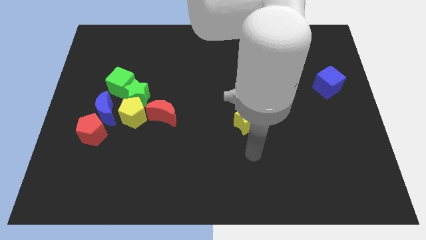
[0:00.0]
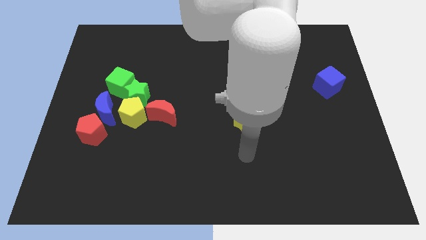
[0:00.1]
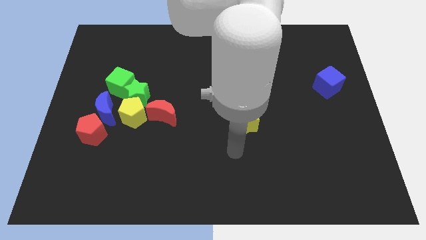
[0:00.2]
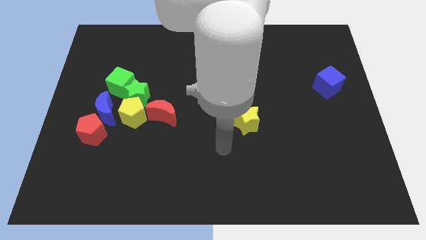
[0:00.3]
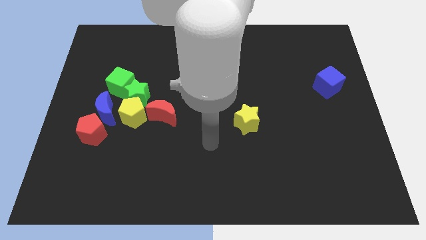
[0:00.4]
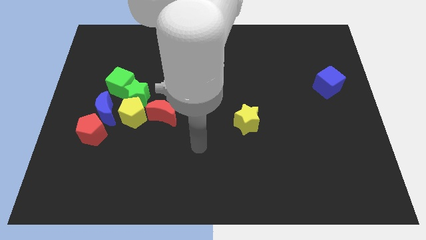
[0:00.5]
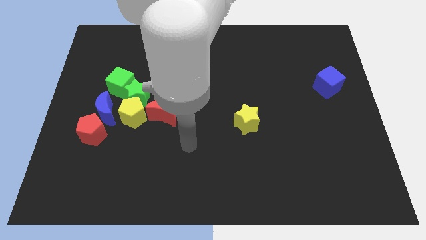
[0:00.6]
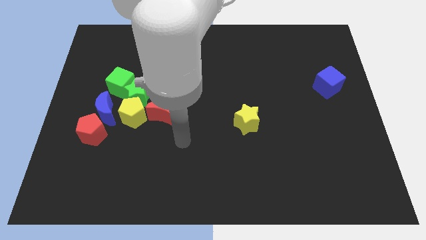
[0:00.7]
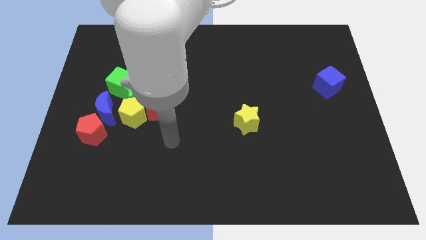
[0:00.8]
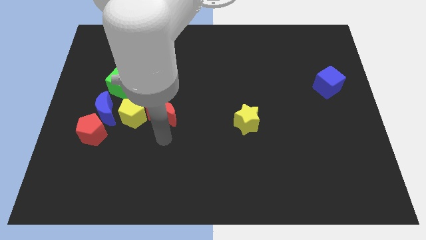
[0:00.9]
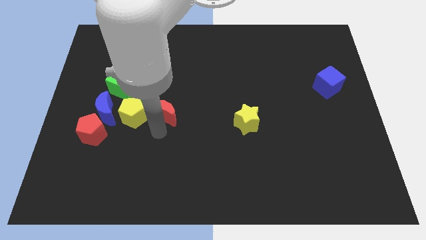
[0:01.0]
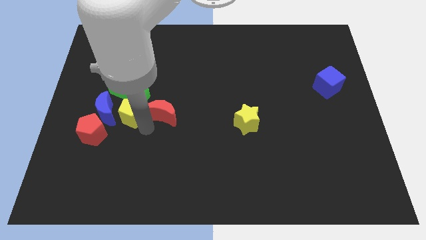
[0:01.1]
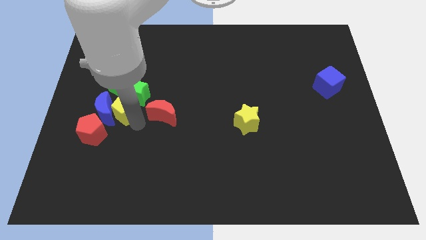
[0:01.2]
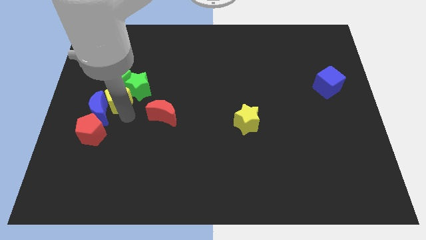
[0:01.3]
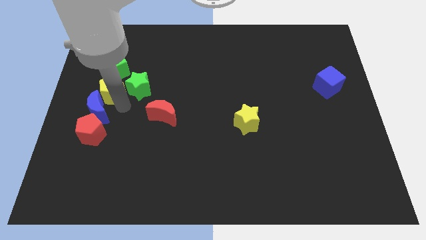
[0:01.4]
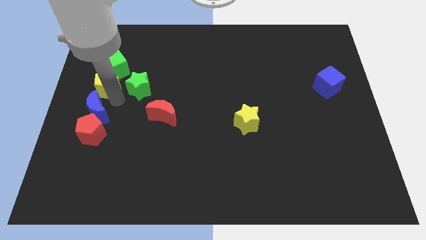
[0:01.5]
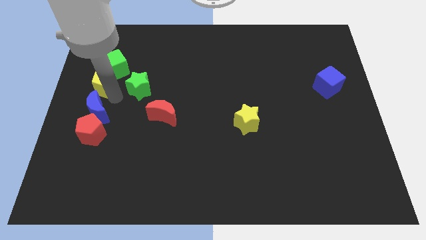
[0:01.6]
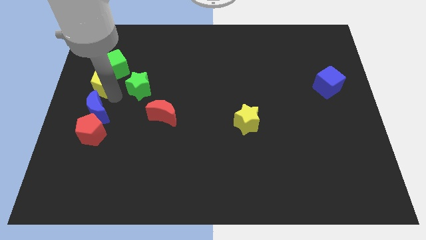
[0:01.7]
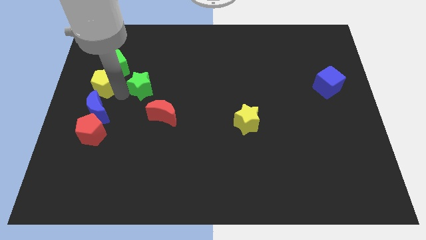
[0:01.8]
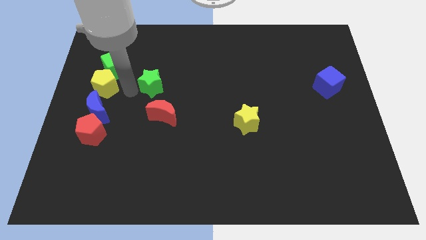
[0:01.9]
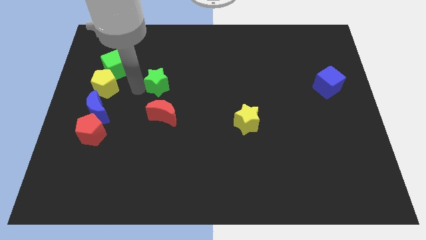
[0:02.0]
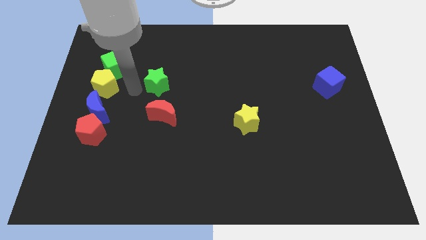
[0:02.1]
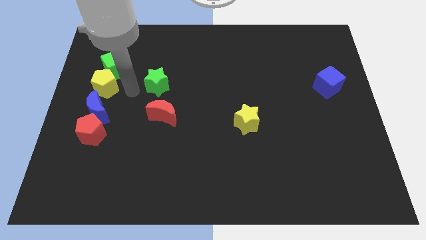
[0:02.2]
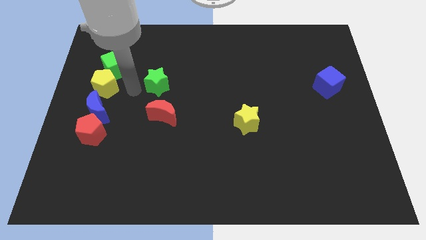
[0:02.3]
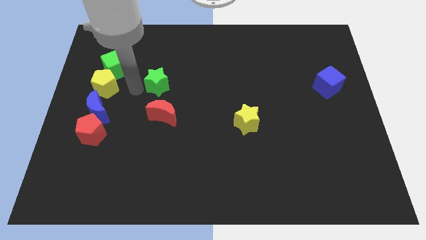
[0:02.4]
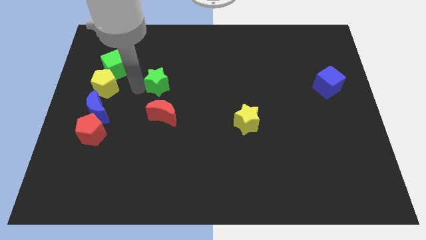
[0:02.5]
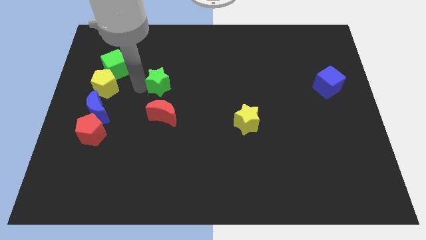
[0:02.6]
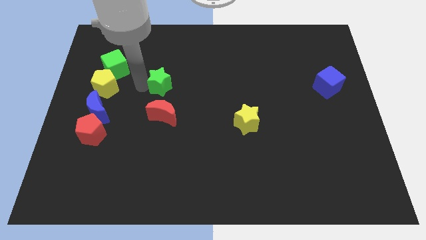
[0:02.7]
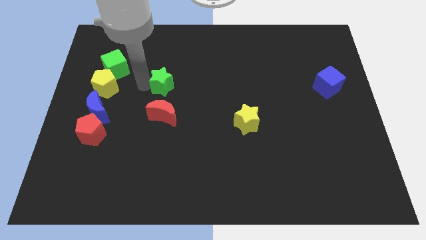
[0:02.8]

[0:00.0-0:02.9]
move the green star away from the group of blocks

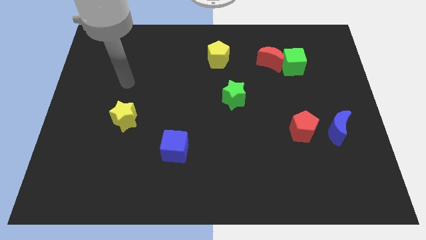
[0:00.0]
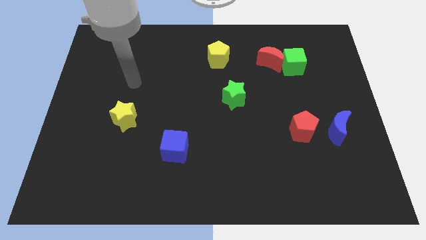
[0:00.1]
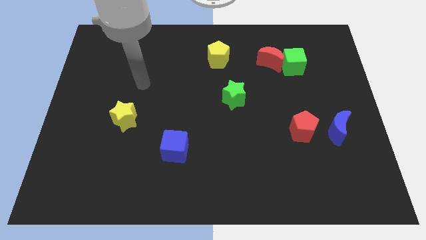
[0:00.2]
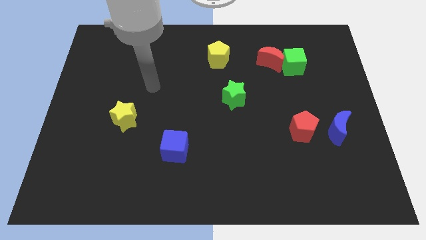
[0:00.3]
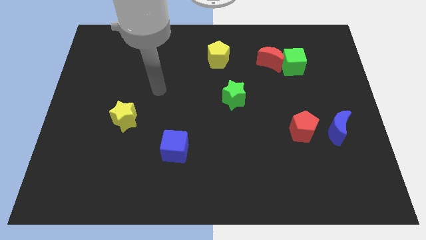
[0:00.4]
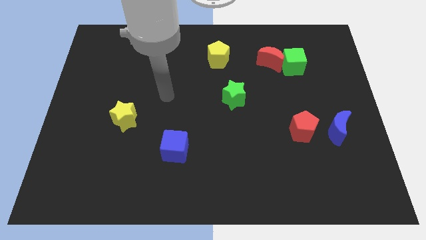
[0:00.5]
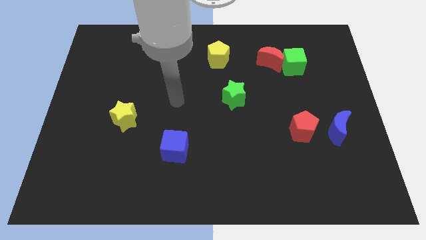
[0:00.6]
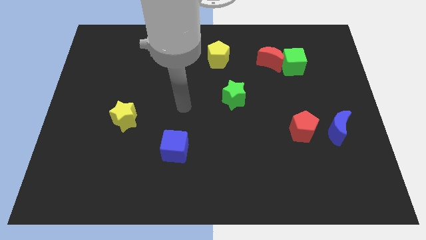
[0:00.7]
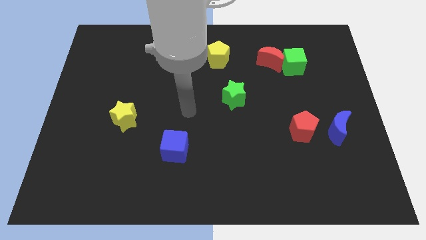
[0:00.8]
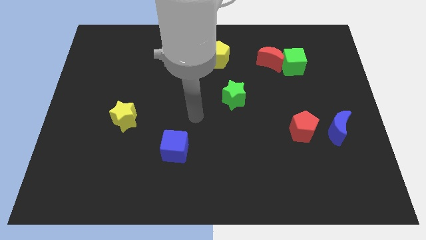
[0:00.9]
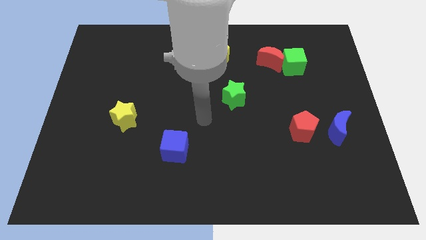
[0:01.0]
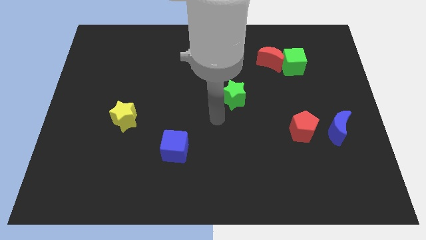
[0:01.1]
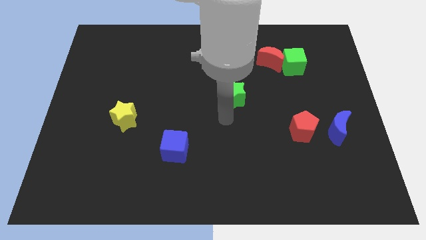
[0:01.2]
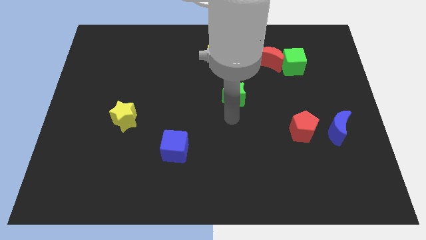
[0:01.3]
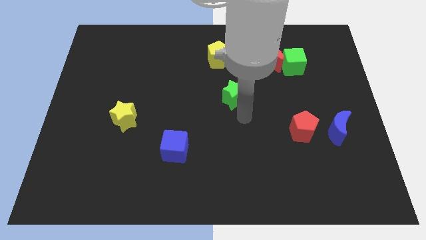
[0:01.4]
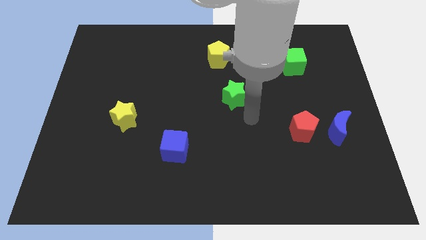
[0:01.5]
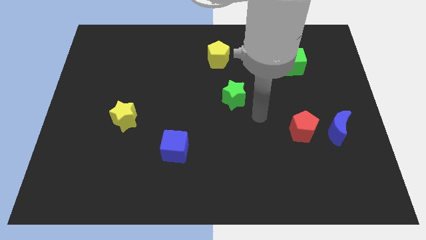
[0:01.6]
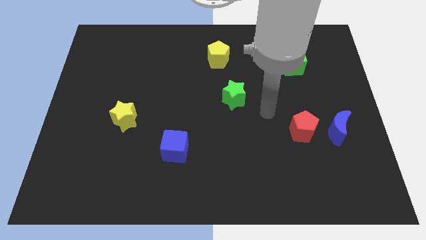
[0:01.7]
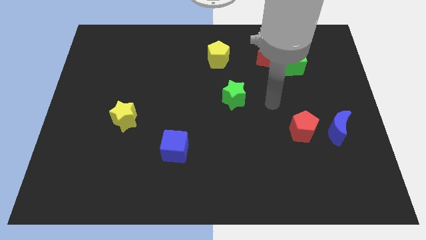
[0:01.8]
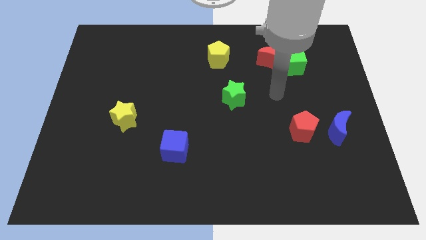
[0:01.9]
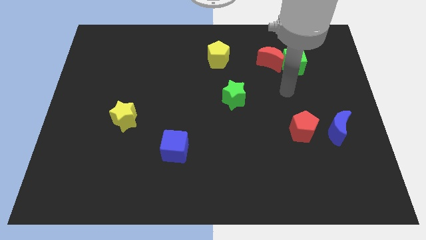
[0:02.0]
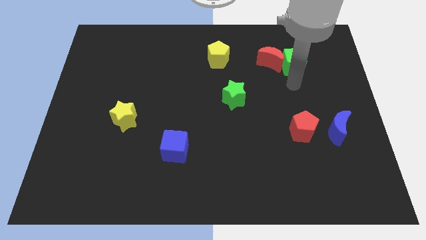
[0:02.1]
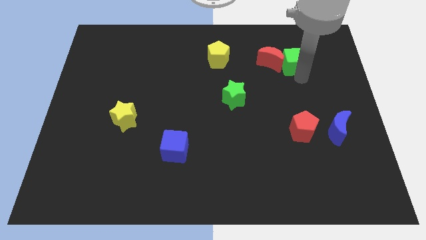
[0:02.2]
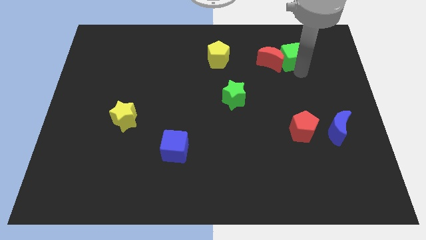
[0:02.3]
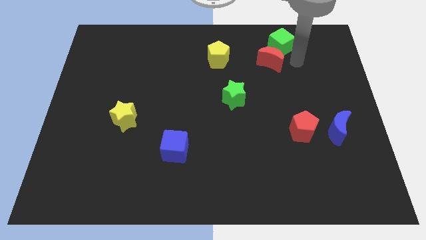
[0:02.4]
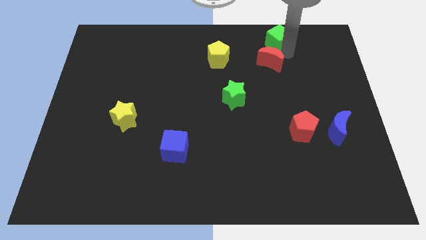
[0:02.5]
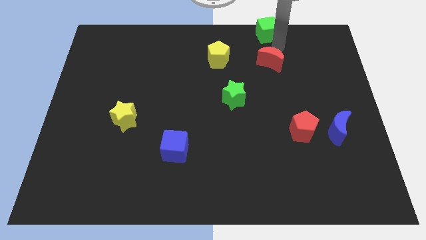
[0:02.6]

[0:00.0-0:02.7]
separate the red moon from the green cube

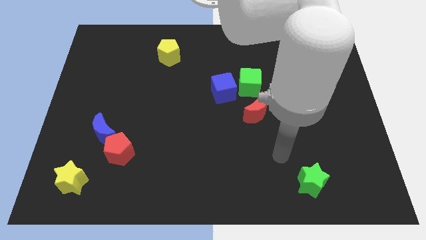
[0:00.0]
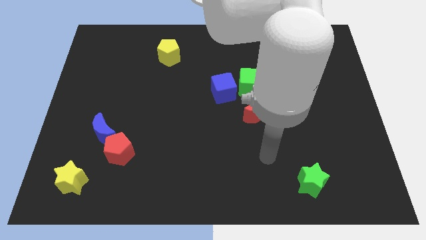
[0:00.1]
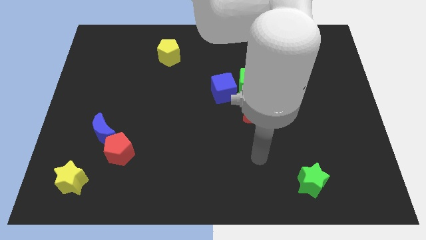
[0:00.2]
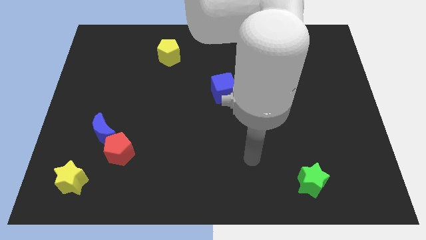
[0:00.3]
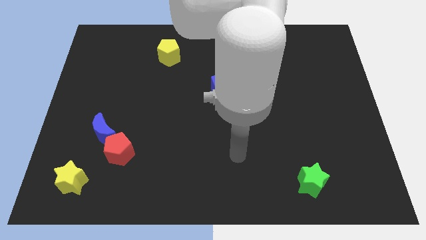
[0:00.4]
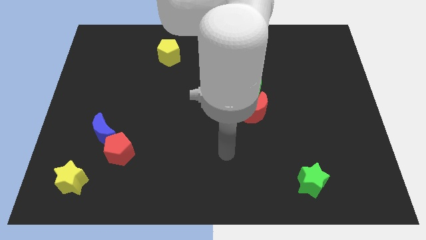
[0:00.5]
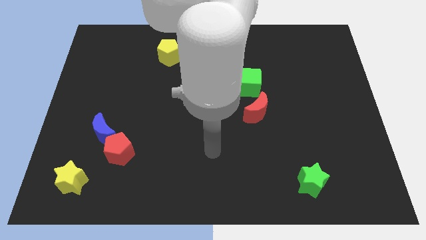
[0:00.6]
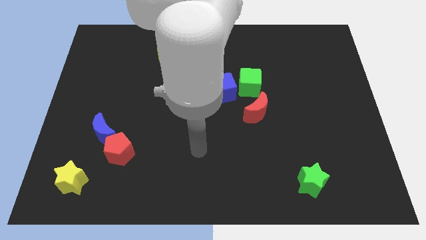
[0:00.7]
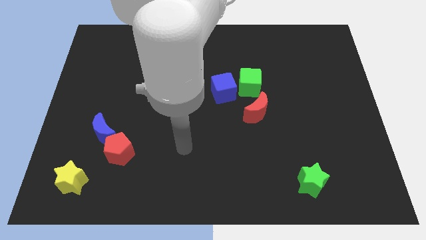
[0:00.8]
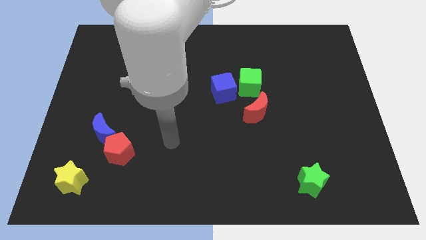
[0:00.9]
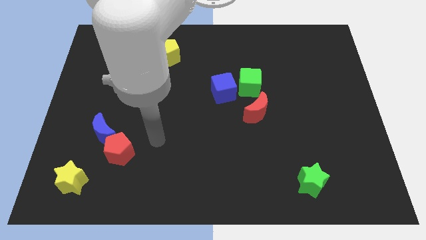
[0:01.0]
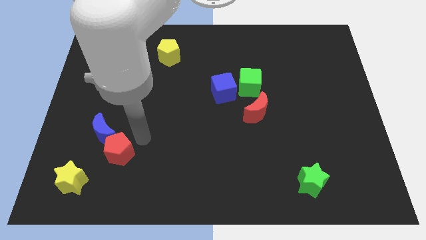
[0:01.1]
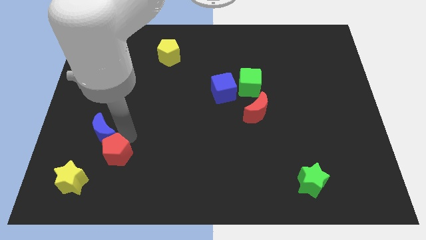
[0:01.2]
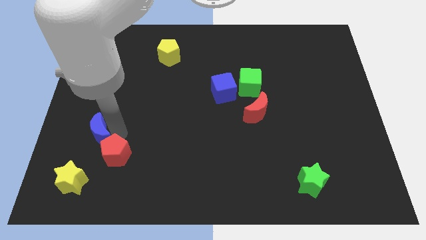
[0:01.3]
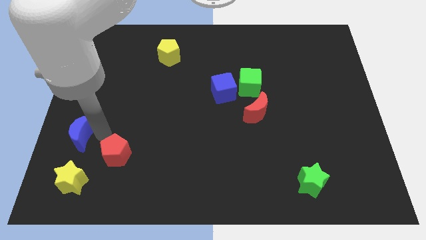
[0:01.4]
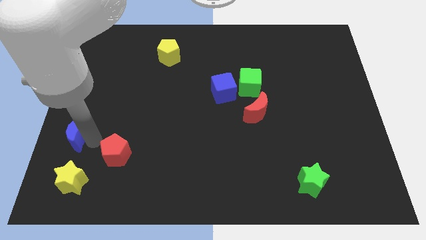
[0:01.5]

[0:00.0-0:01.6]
move the red pentagon away from the blue moon

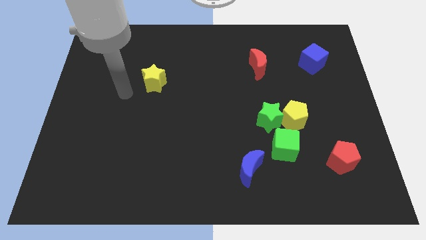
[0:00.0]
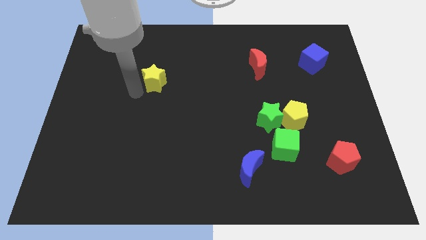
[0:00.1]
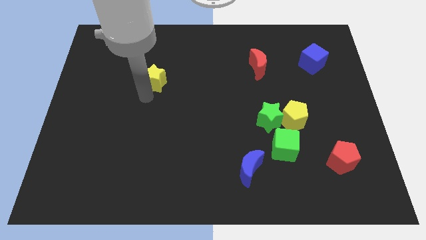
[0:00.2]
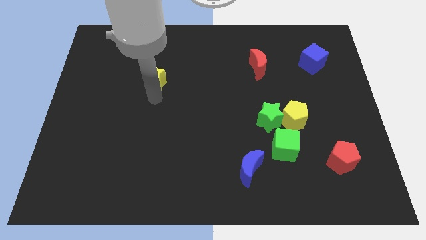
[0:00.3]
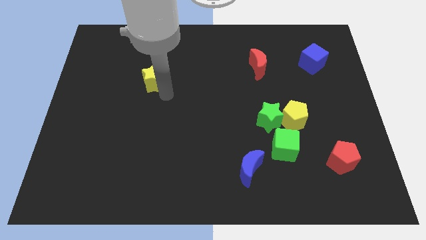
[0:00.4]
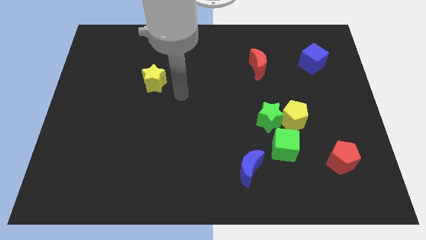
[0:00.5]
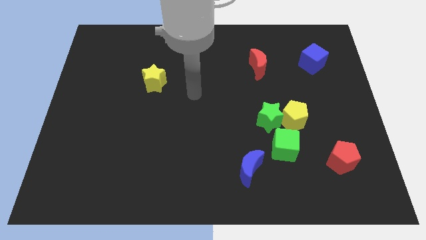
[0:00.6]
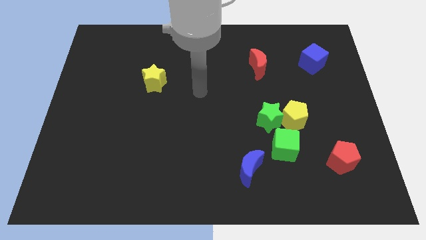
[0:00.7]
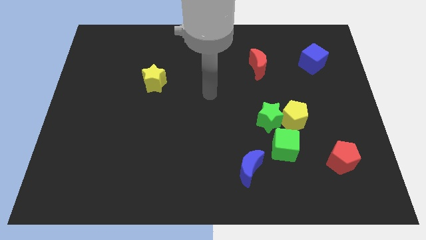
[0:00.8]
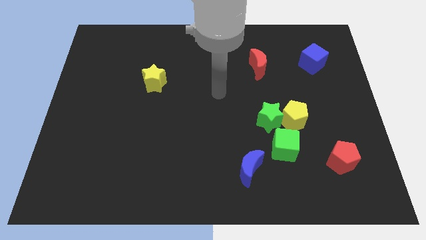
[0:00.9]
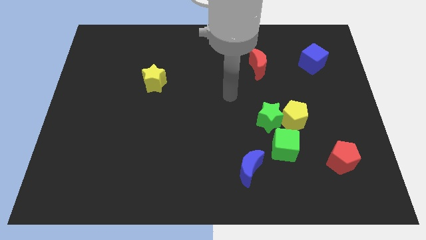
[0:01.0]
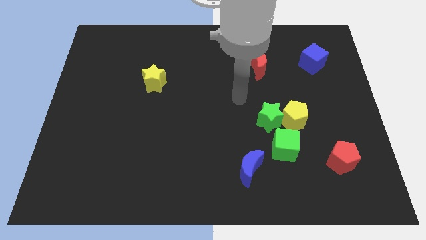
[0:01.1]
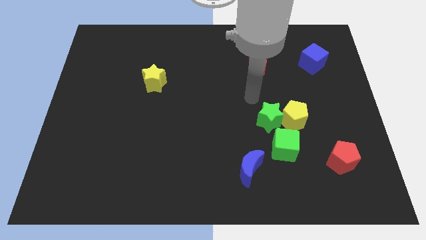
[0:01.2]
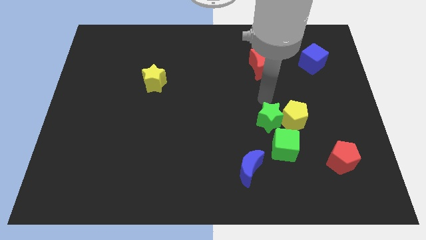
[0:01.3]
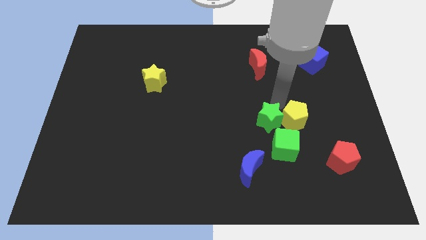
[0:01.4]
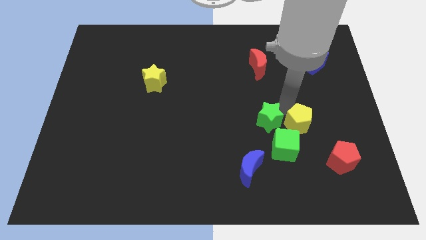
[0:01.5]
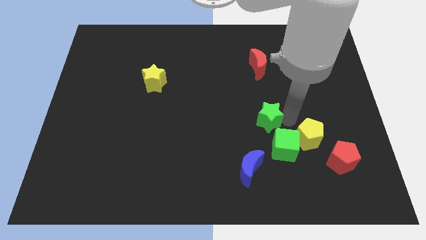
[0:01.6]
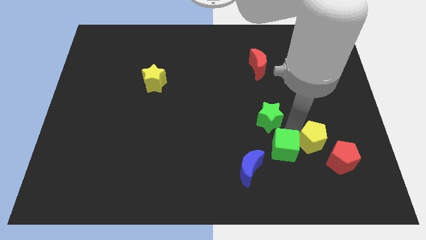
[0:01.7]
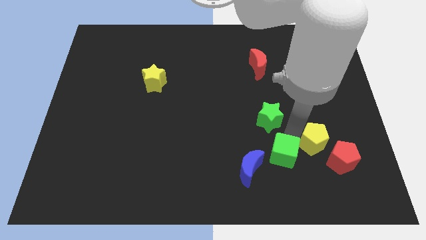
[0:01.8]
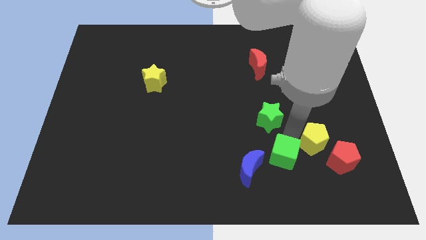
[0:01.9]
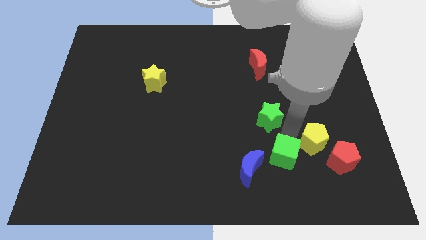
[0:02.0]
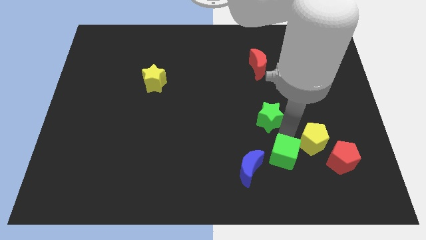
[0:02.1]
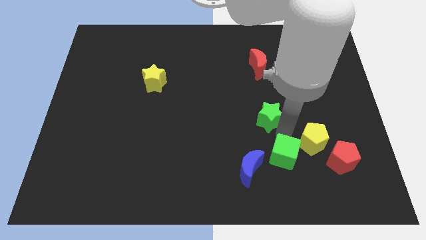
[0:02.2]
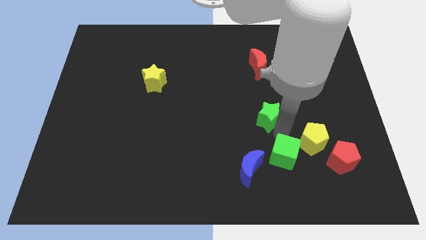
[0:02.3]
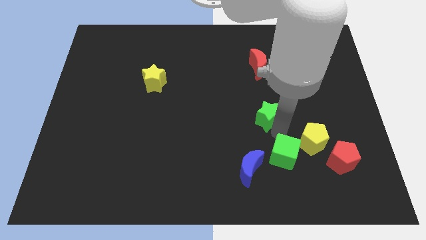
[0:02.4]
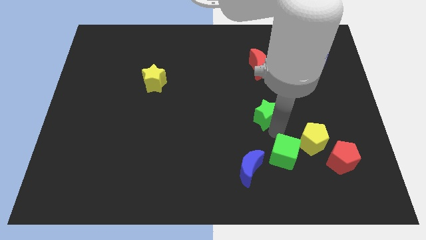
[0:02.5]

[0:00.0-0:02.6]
separate the green star from the yellow pentagon and green cube
